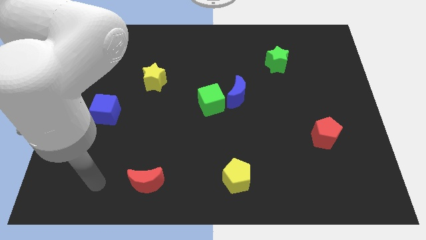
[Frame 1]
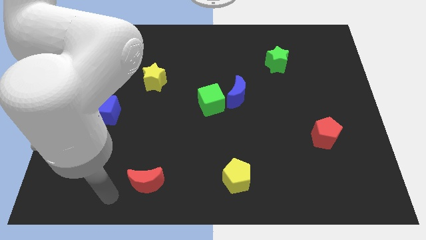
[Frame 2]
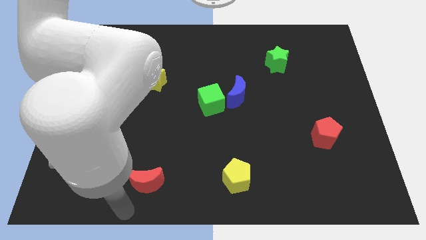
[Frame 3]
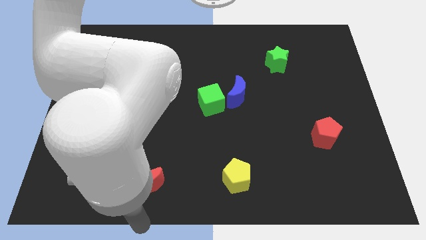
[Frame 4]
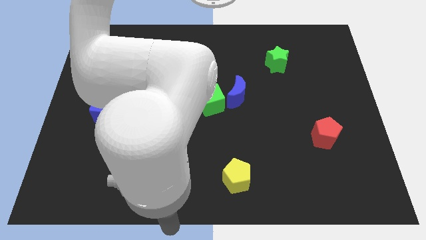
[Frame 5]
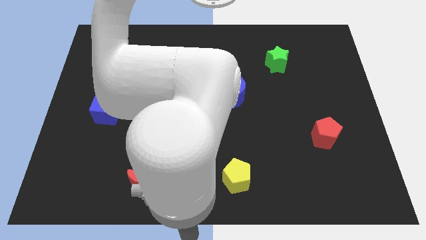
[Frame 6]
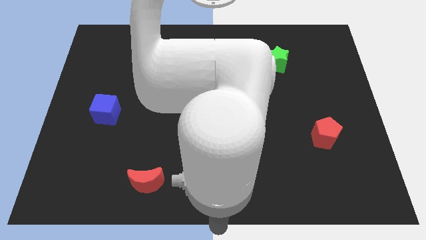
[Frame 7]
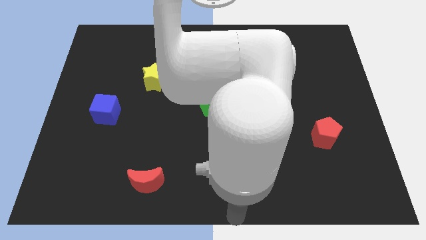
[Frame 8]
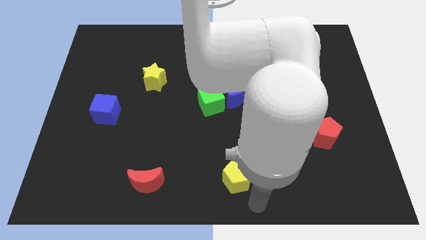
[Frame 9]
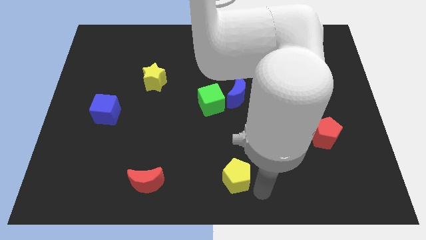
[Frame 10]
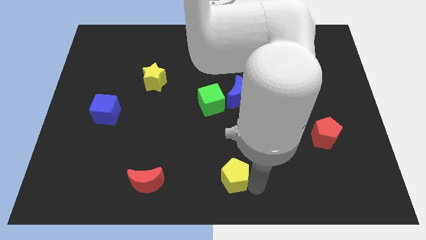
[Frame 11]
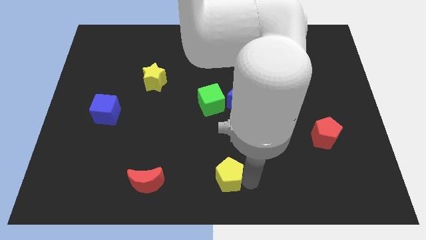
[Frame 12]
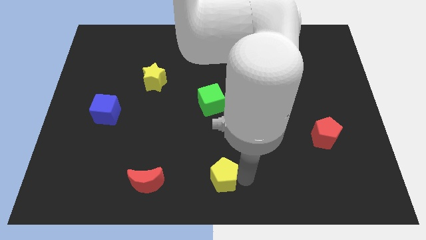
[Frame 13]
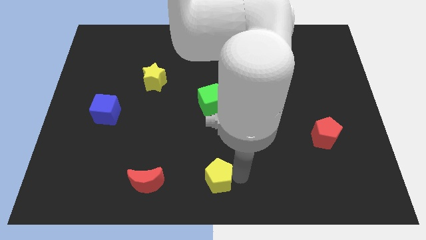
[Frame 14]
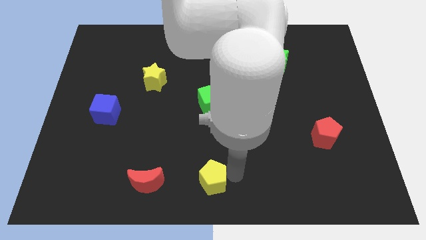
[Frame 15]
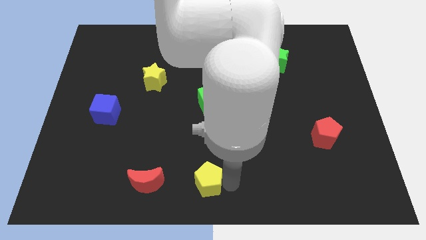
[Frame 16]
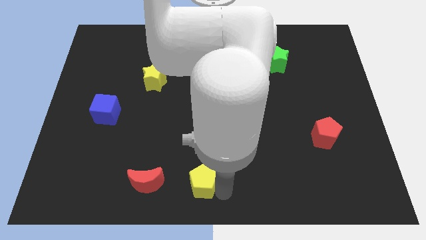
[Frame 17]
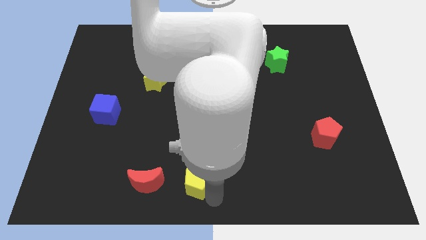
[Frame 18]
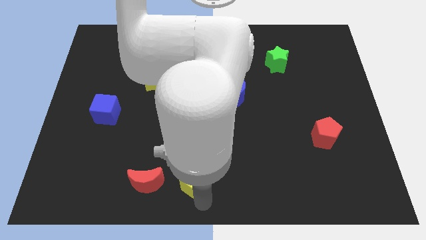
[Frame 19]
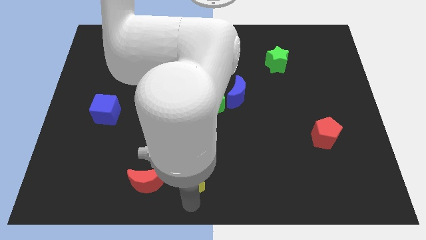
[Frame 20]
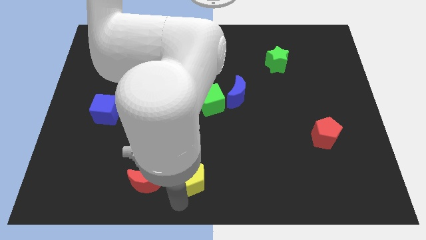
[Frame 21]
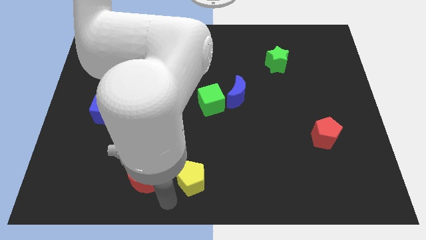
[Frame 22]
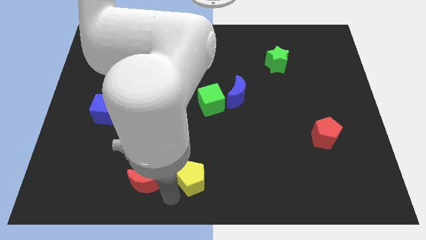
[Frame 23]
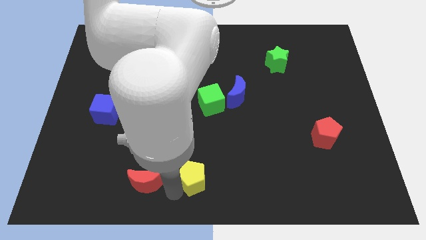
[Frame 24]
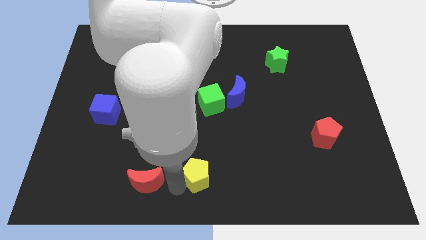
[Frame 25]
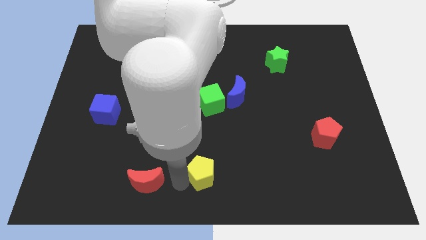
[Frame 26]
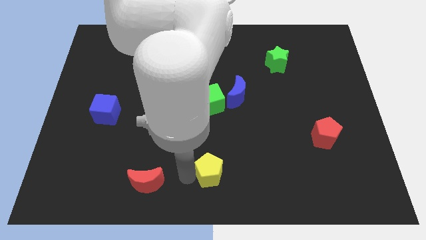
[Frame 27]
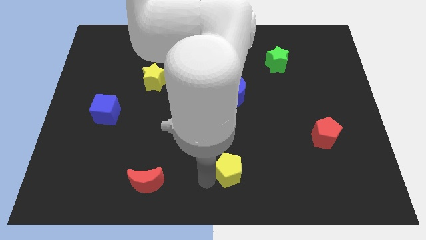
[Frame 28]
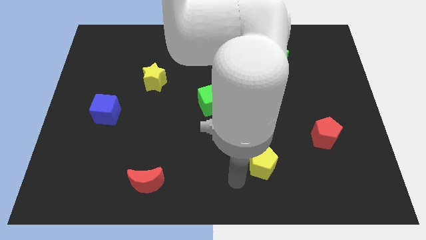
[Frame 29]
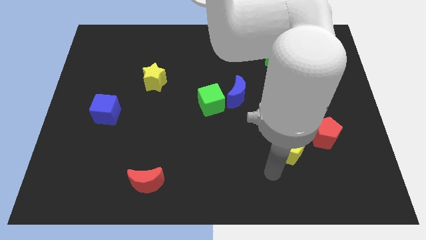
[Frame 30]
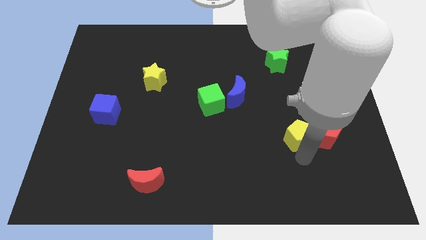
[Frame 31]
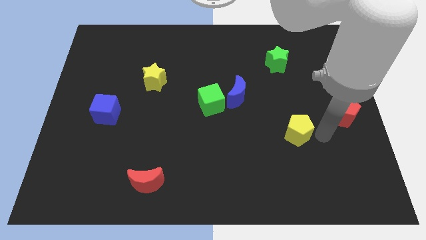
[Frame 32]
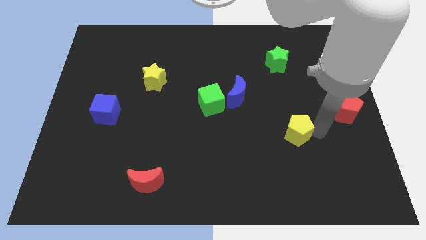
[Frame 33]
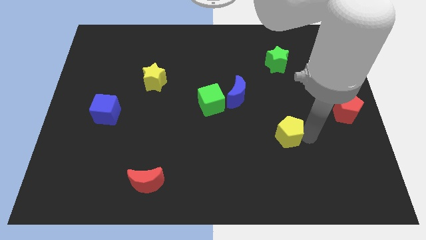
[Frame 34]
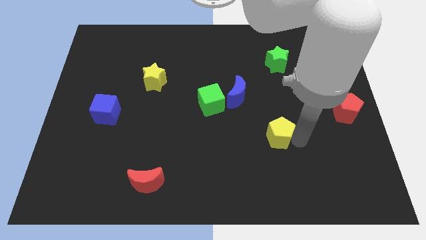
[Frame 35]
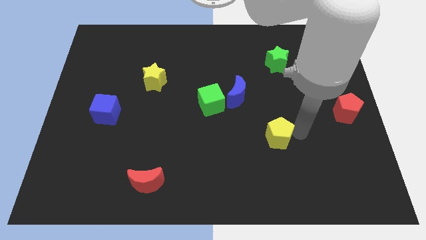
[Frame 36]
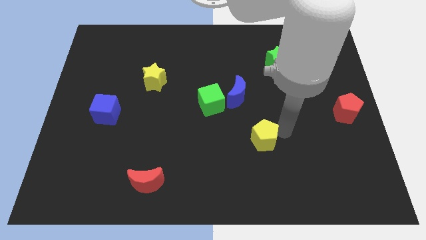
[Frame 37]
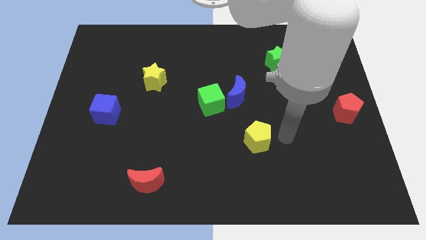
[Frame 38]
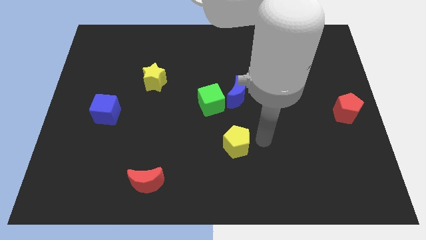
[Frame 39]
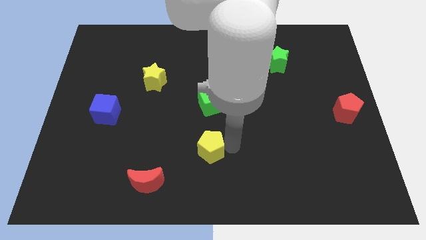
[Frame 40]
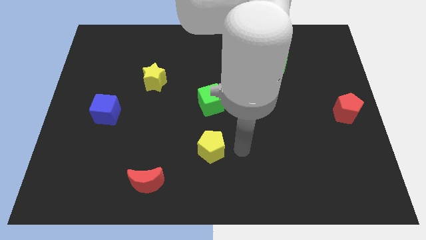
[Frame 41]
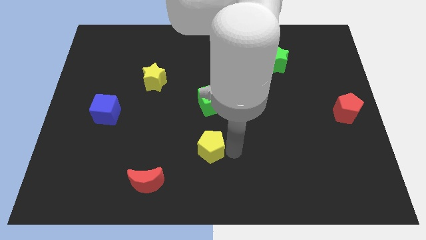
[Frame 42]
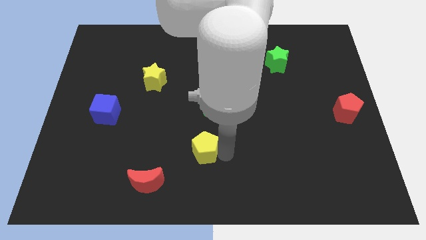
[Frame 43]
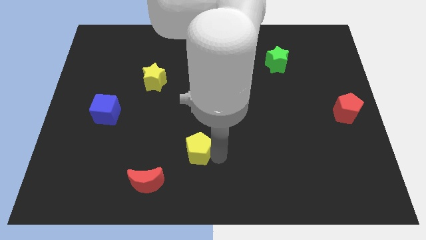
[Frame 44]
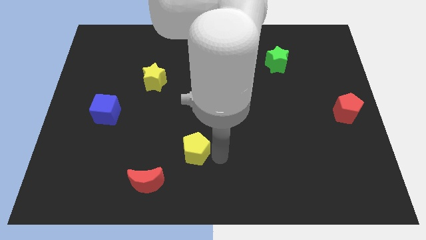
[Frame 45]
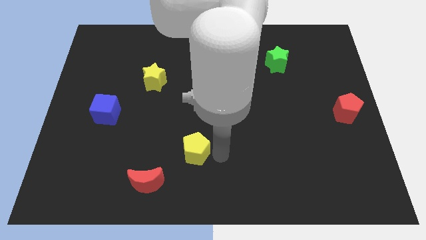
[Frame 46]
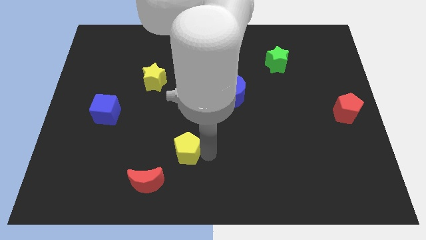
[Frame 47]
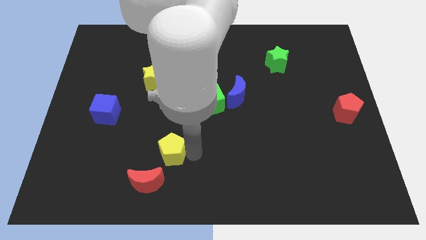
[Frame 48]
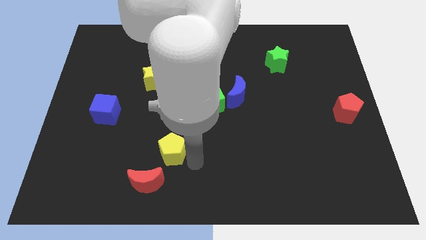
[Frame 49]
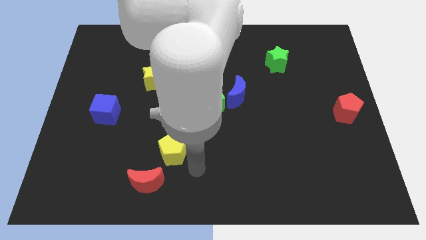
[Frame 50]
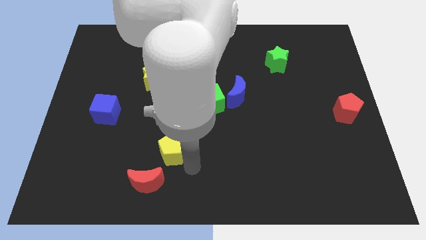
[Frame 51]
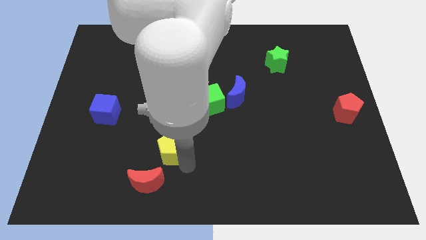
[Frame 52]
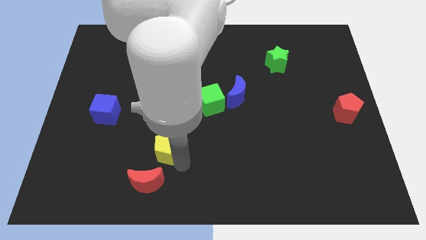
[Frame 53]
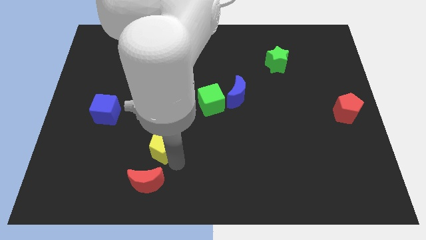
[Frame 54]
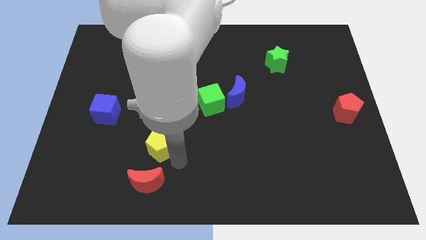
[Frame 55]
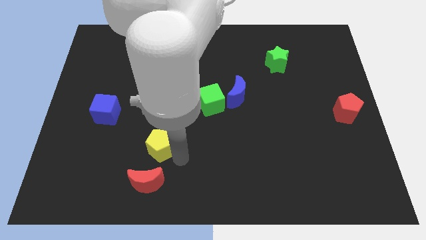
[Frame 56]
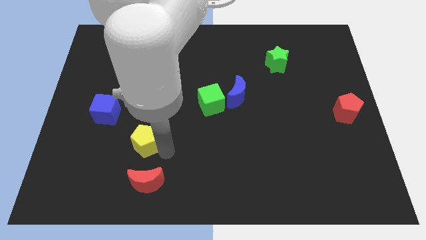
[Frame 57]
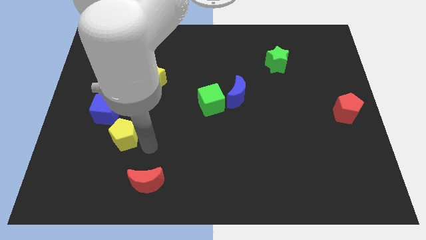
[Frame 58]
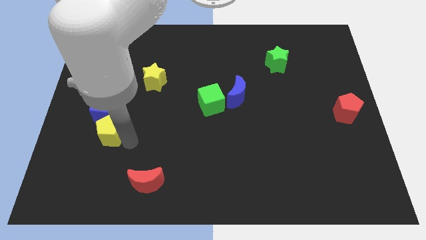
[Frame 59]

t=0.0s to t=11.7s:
push the yellow pentagon to the blue cube

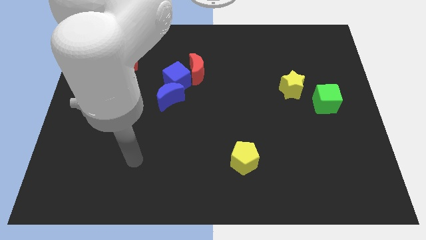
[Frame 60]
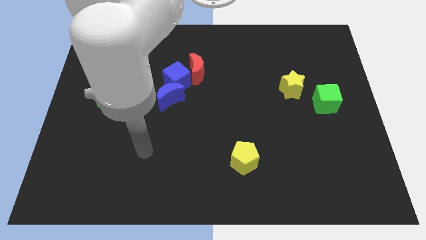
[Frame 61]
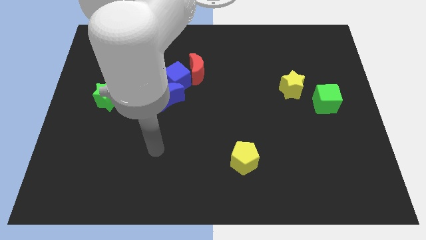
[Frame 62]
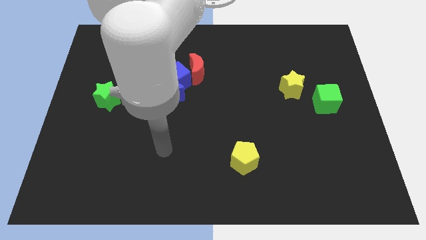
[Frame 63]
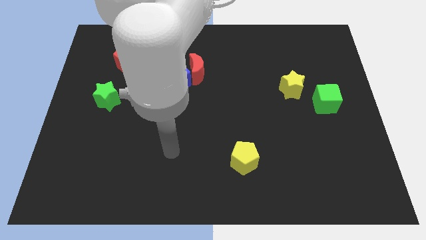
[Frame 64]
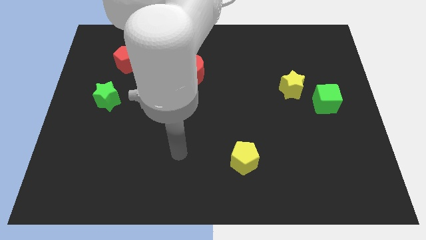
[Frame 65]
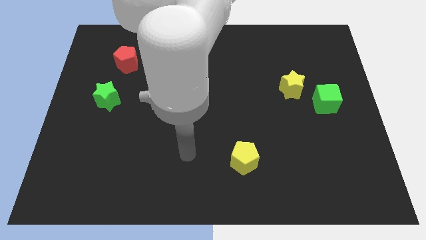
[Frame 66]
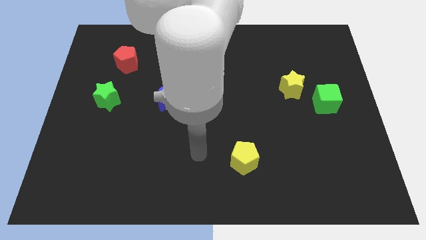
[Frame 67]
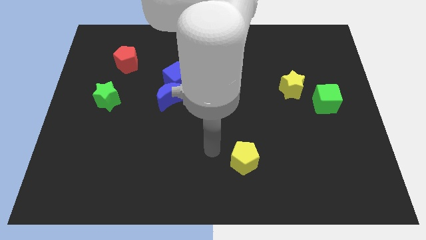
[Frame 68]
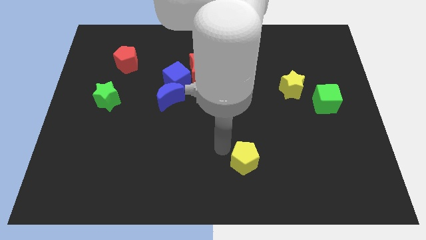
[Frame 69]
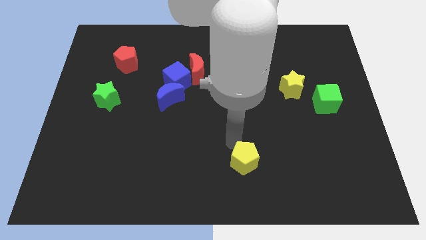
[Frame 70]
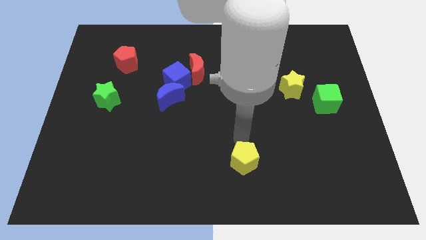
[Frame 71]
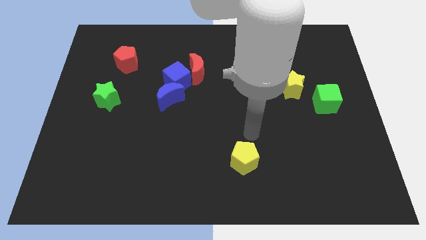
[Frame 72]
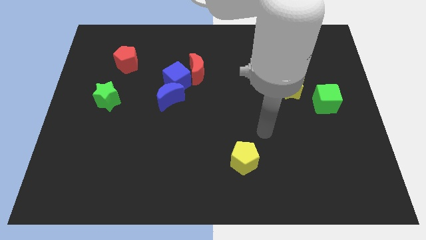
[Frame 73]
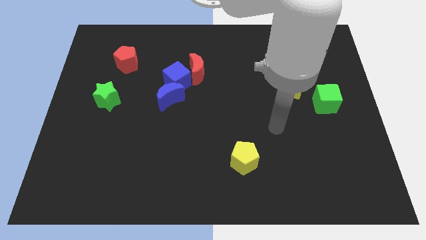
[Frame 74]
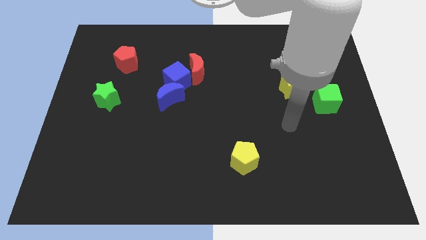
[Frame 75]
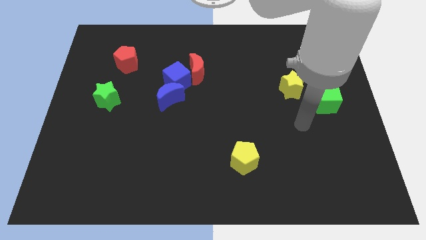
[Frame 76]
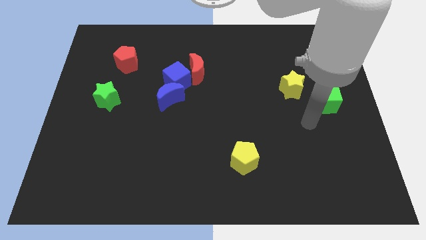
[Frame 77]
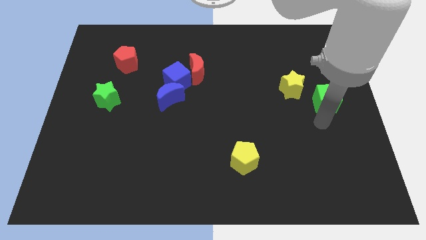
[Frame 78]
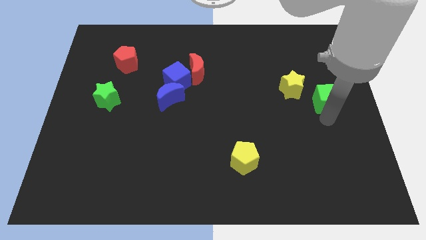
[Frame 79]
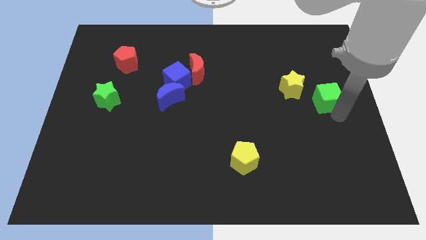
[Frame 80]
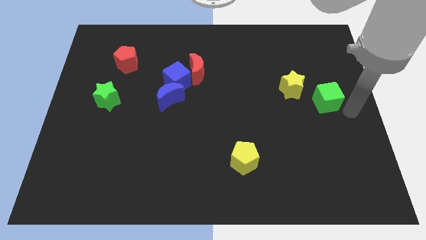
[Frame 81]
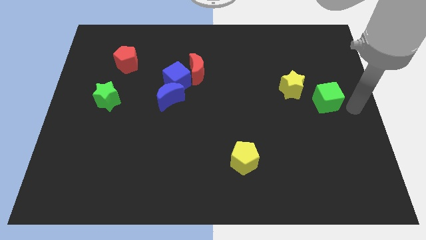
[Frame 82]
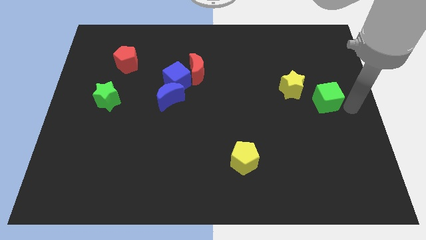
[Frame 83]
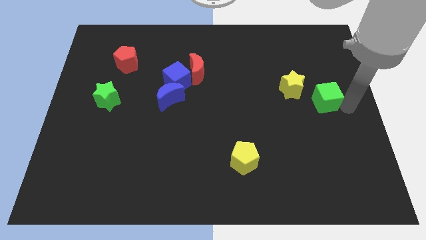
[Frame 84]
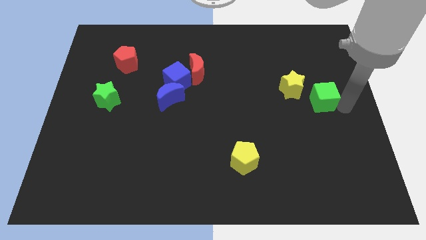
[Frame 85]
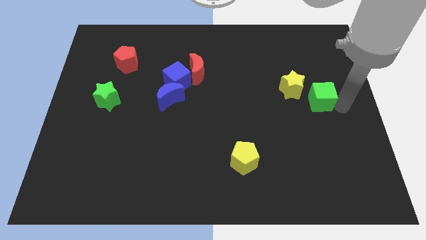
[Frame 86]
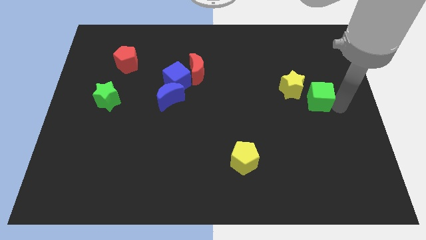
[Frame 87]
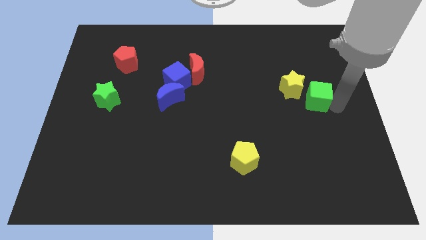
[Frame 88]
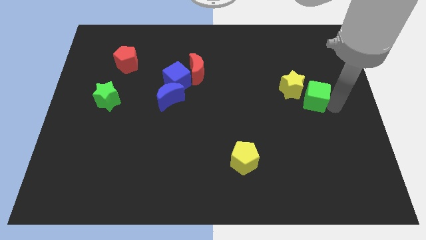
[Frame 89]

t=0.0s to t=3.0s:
push the green cube towards the yellow star
